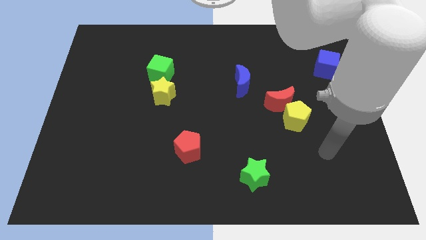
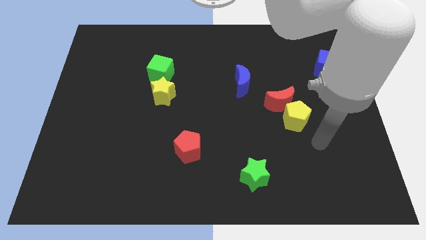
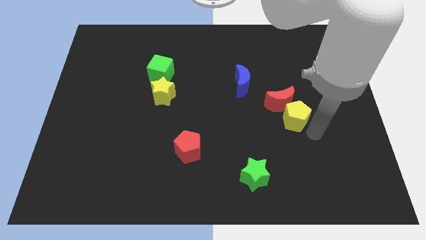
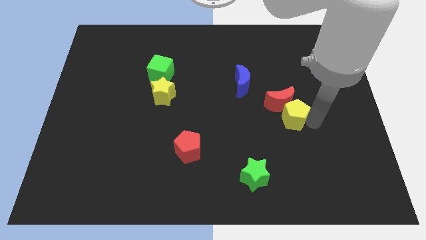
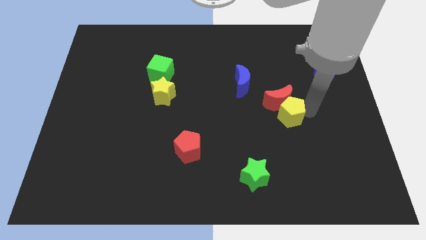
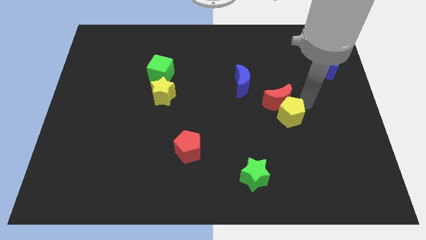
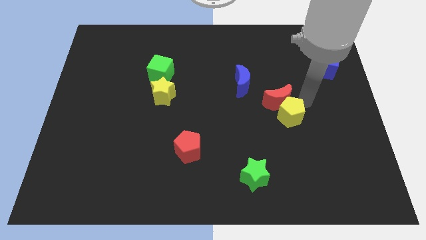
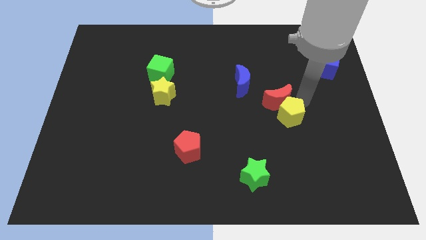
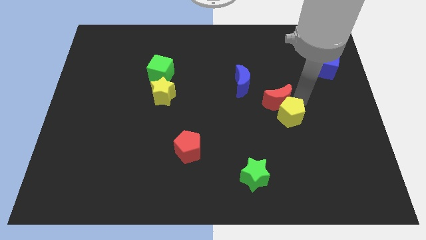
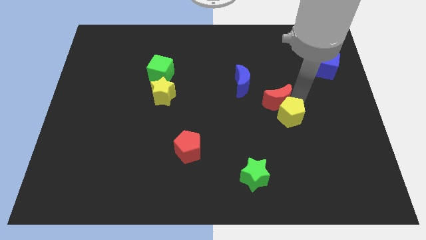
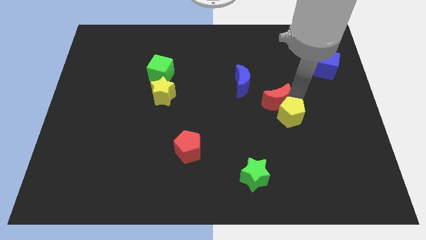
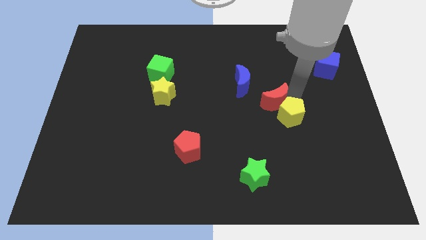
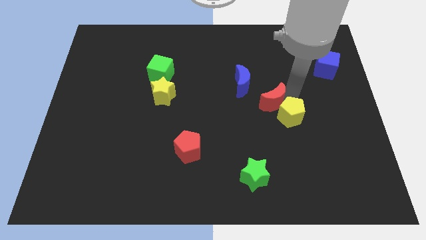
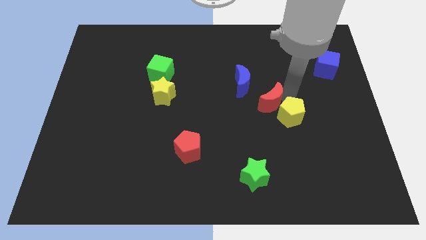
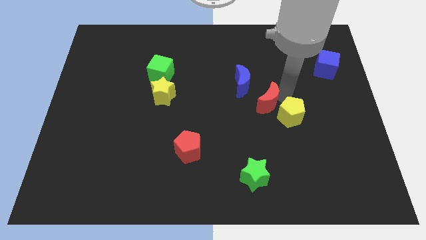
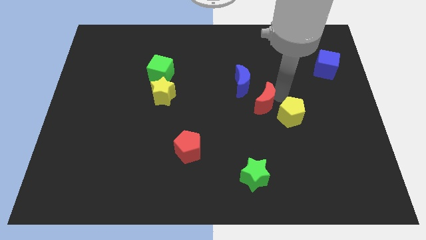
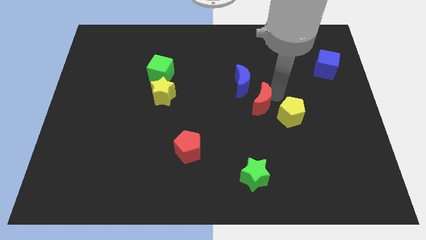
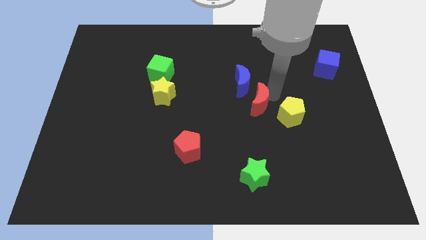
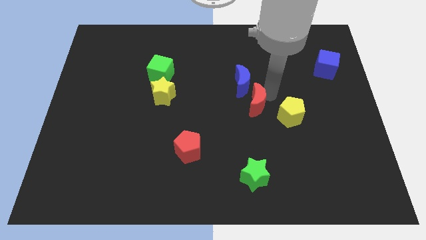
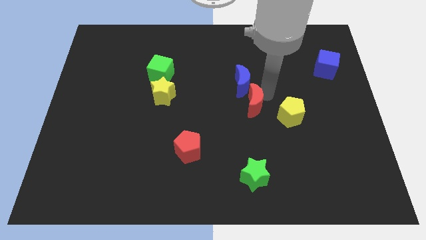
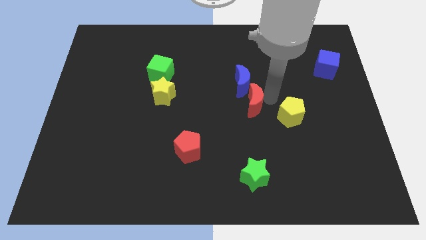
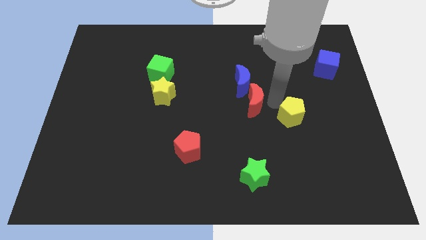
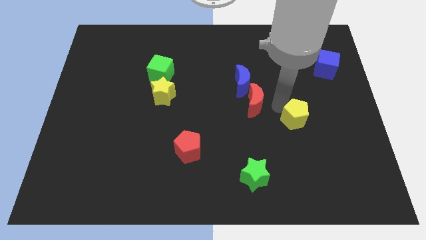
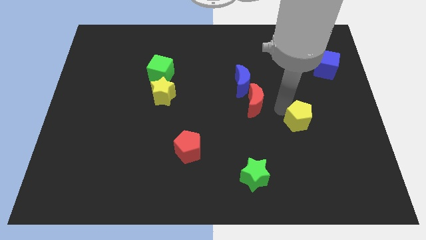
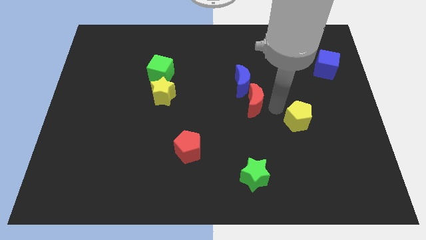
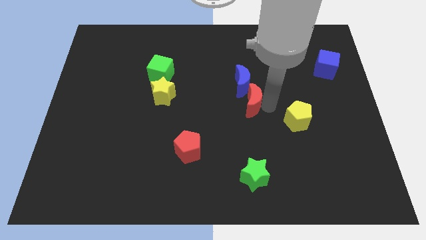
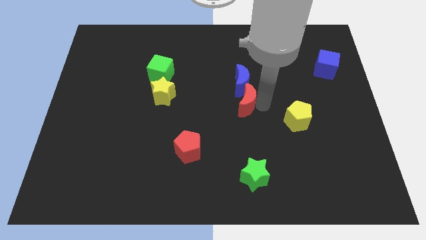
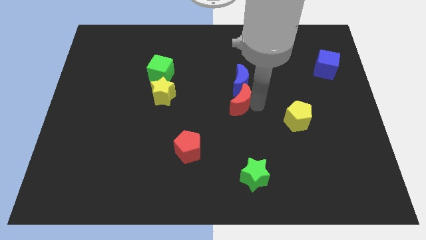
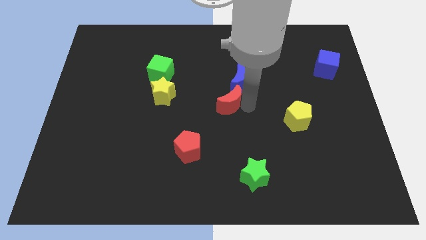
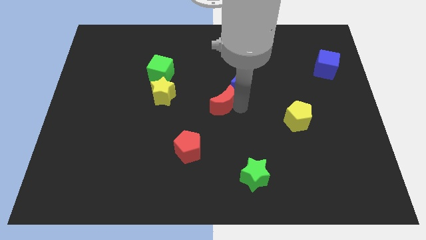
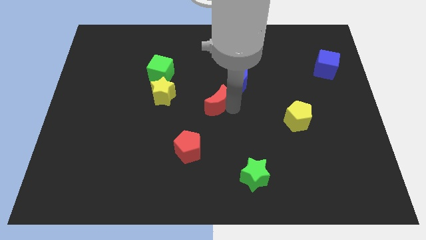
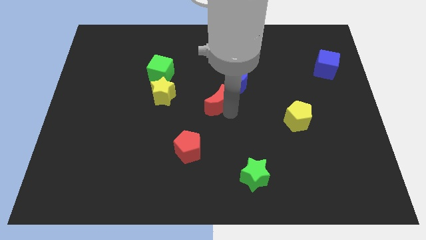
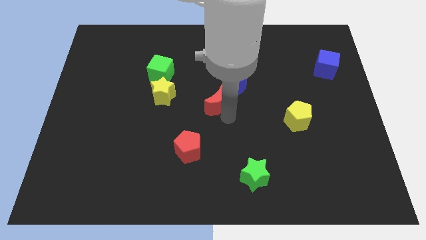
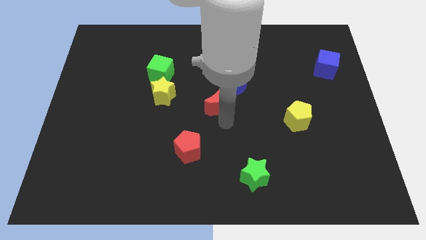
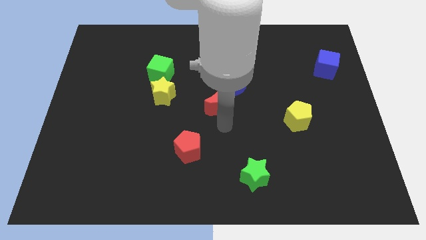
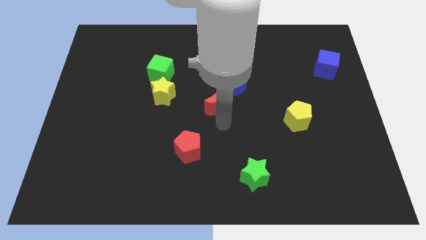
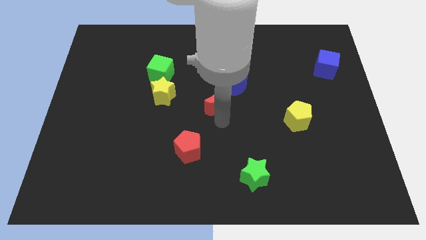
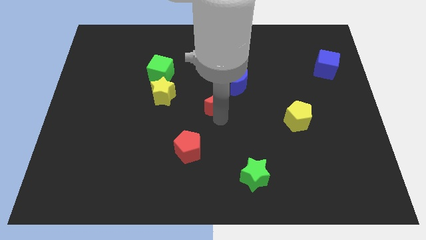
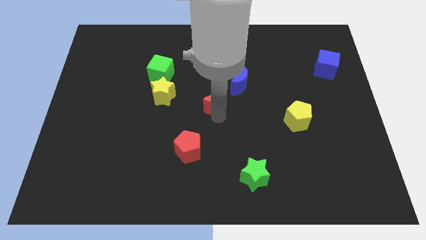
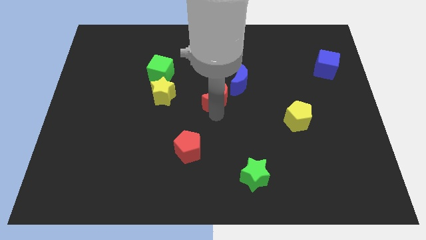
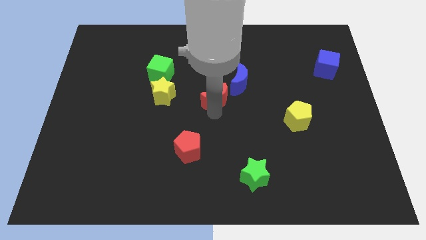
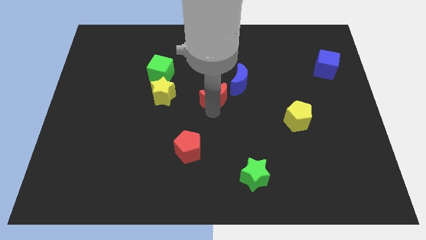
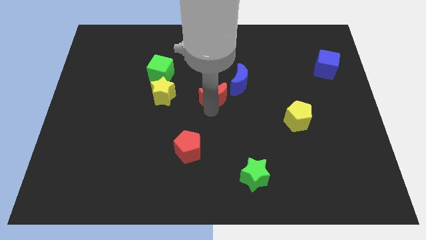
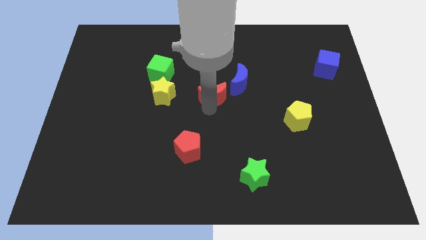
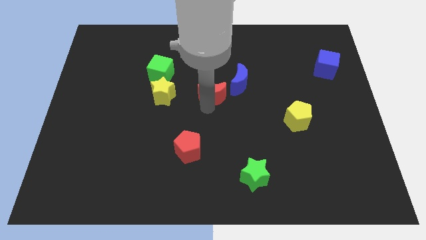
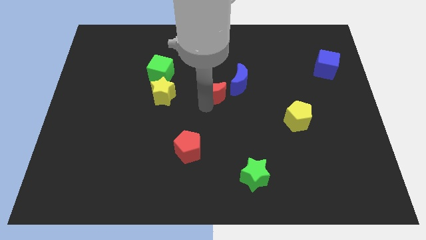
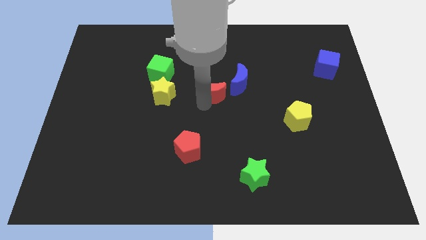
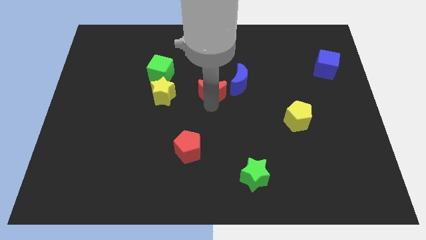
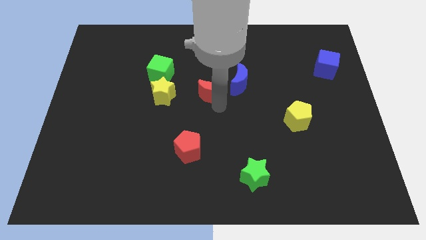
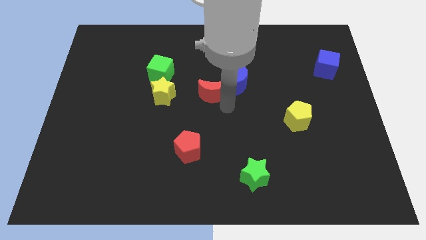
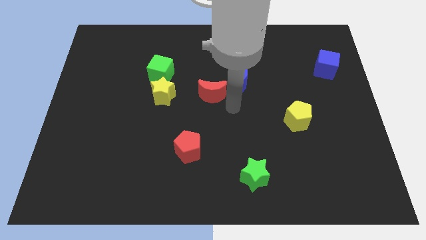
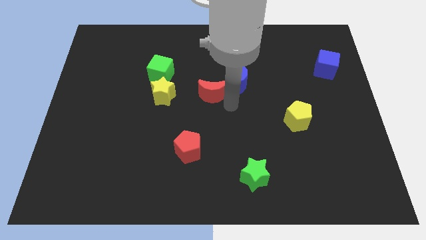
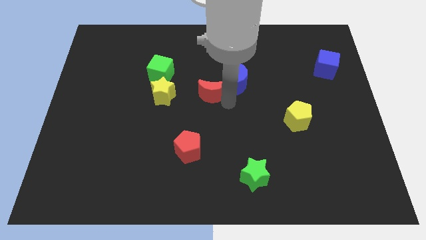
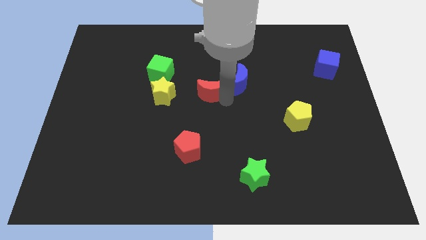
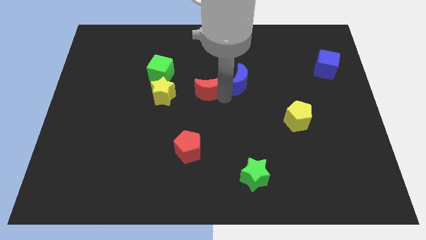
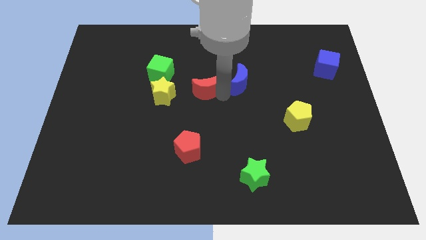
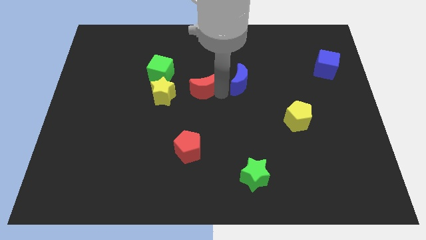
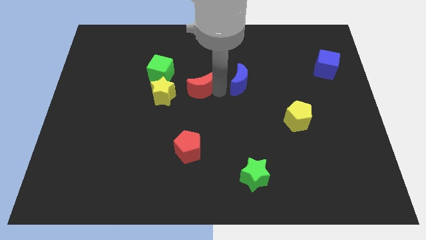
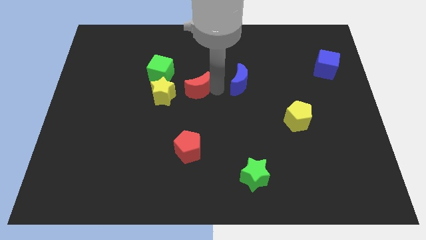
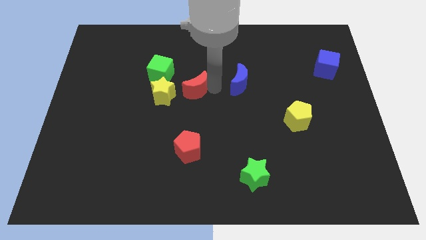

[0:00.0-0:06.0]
push the red moon to the top right of the yellow star

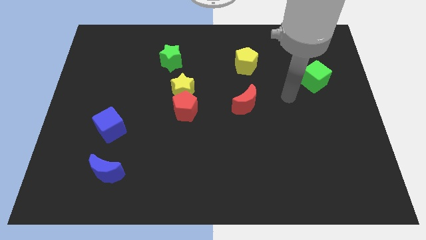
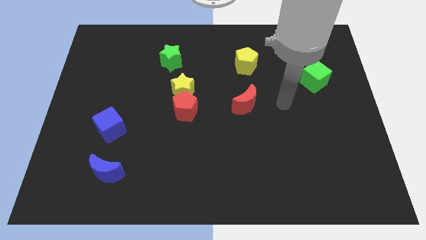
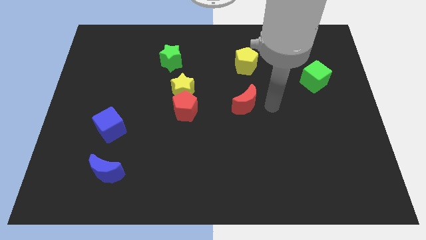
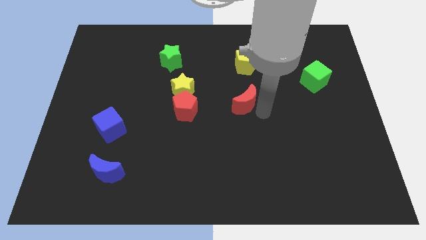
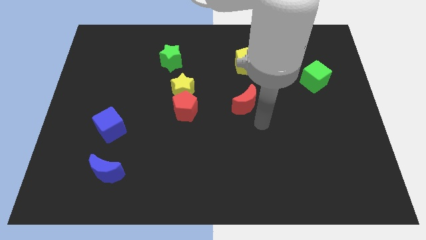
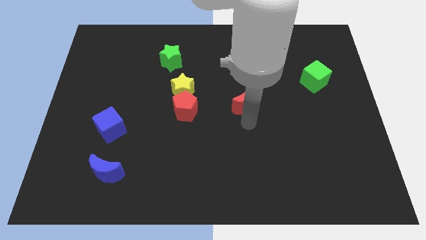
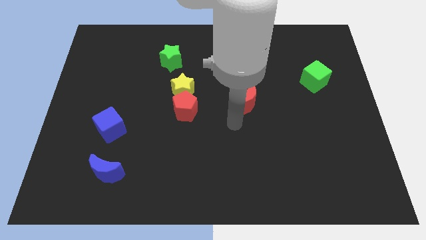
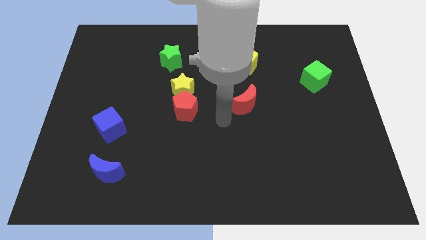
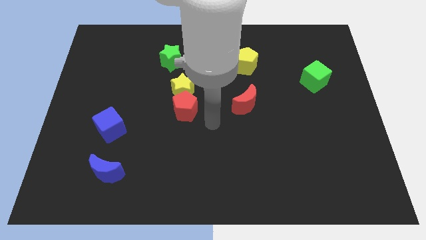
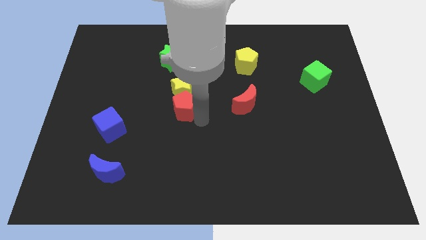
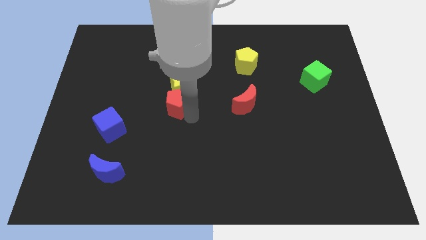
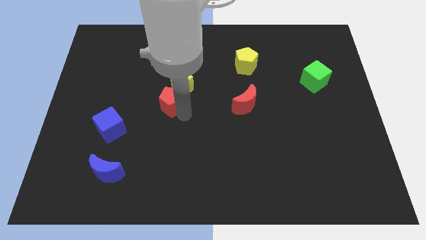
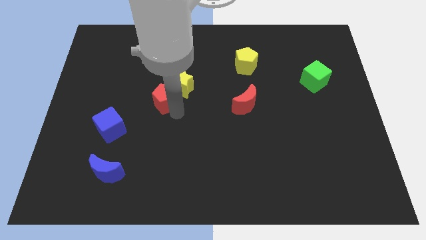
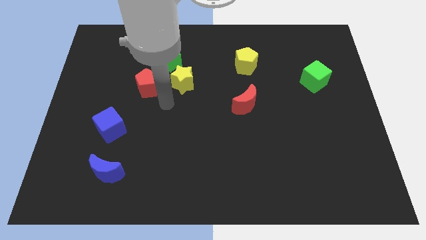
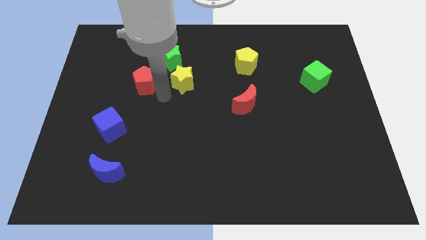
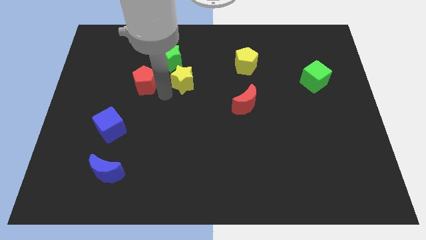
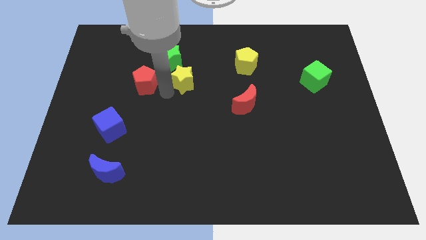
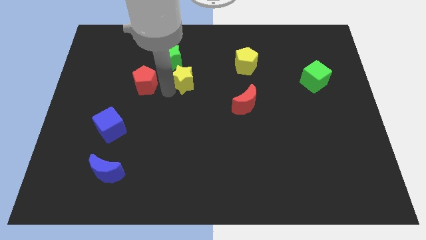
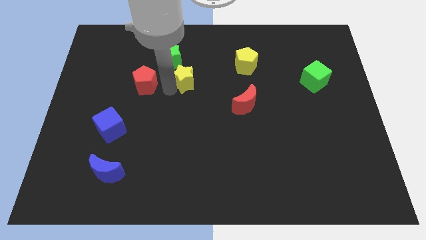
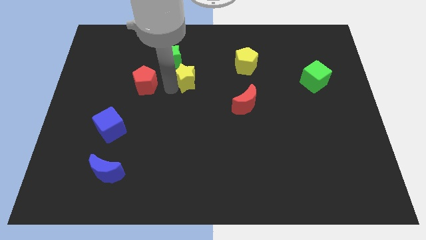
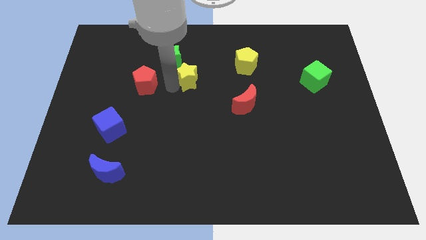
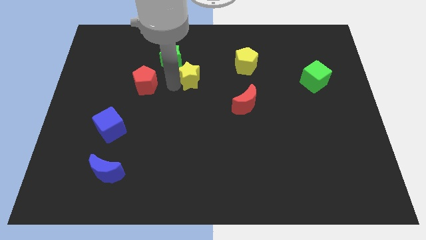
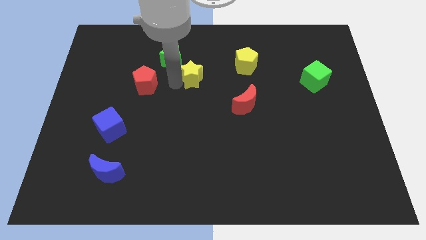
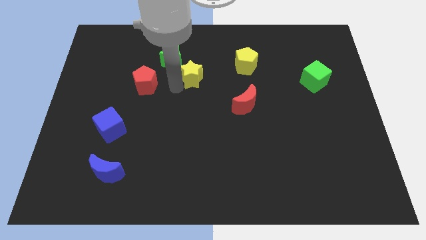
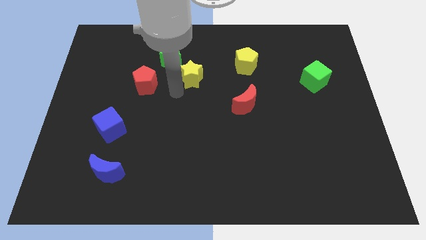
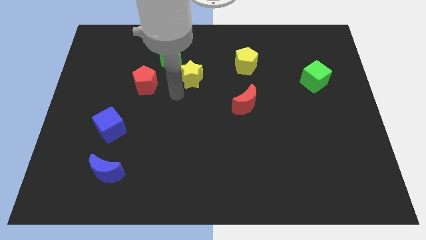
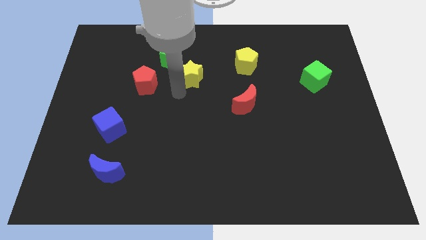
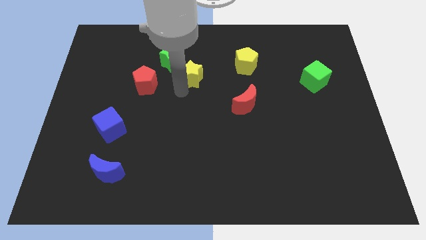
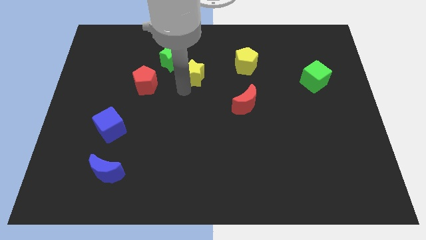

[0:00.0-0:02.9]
move the yellow star to the left side of the yellow pentagon
